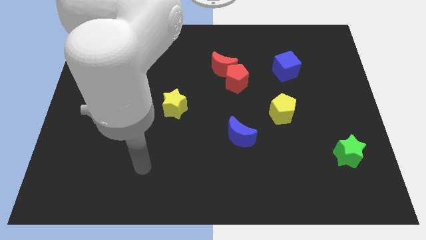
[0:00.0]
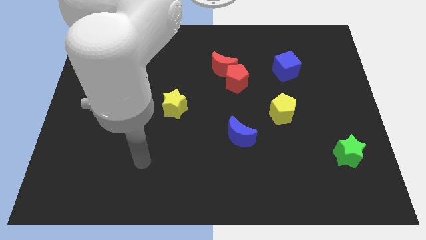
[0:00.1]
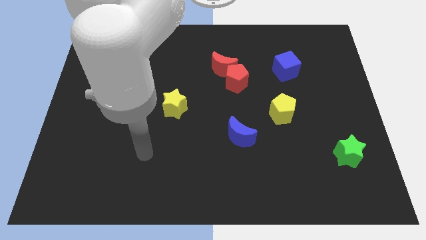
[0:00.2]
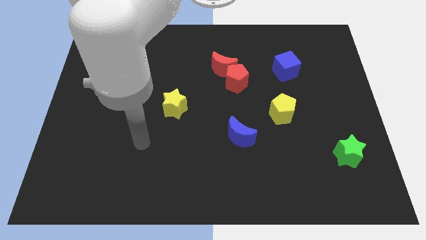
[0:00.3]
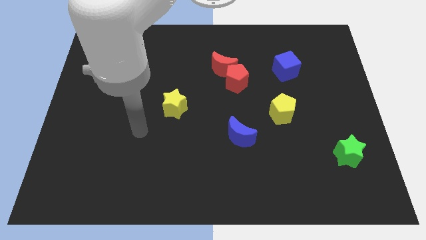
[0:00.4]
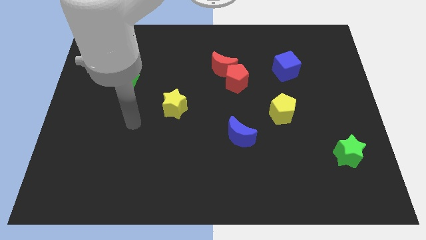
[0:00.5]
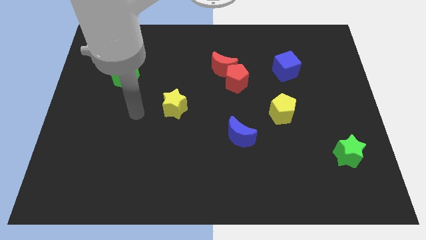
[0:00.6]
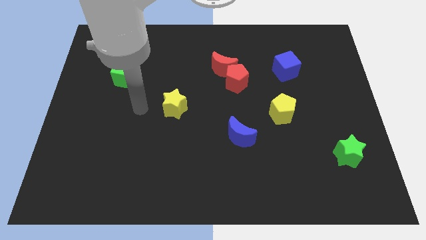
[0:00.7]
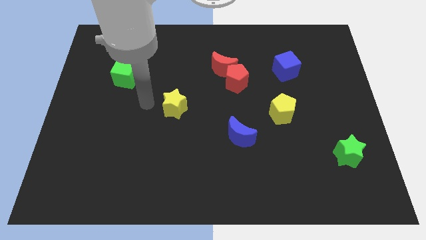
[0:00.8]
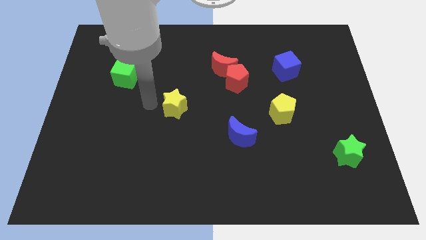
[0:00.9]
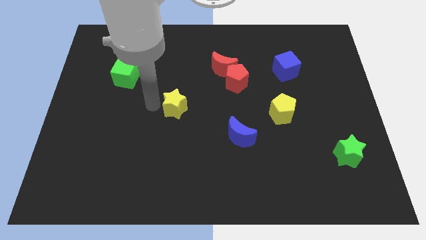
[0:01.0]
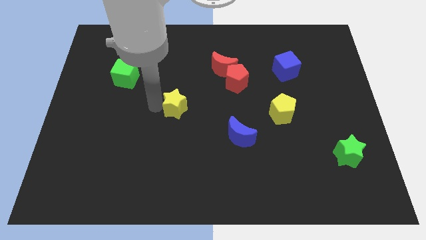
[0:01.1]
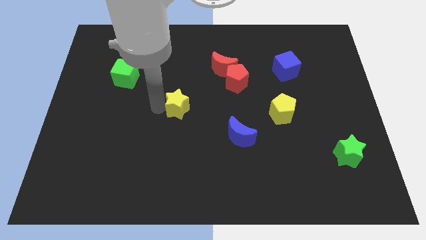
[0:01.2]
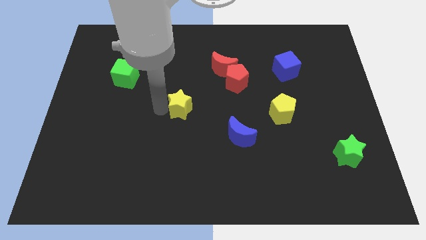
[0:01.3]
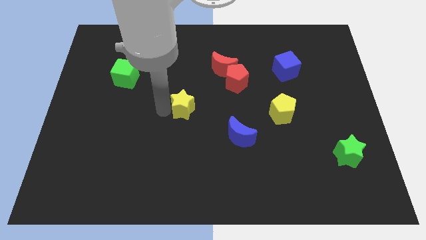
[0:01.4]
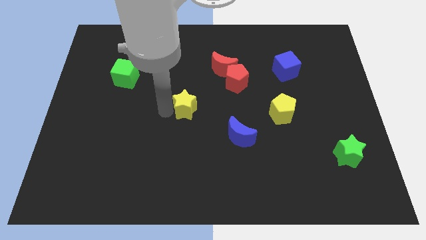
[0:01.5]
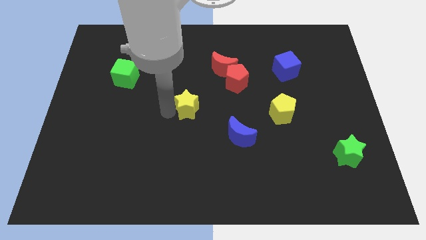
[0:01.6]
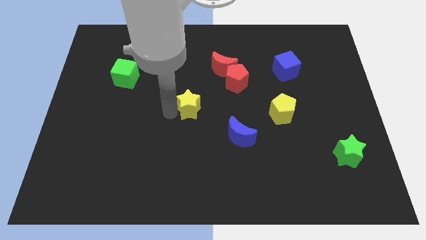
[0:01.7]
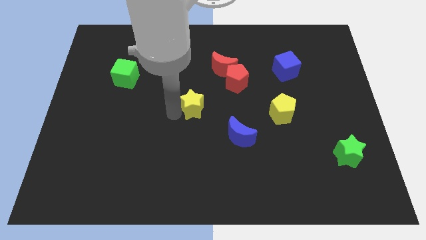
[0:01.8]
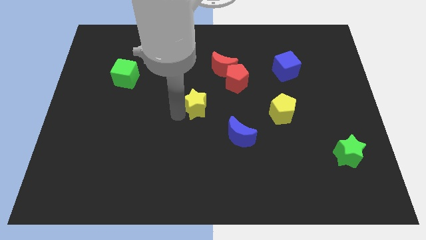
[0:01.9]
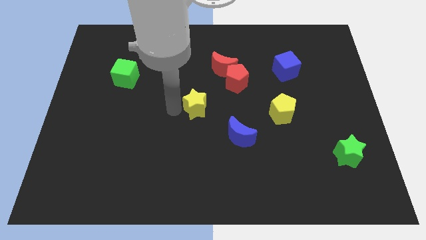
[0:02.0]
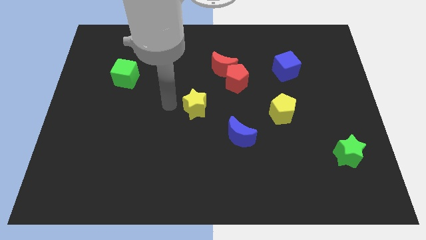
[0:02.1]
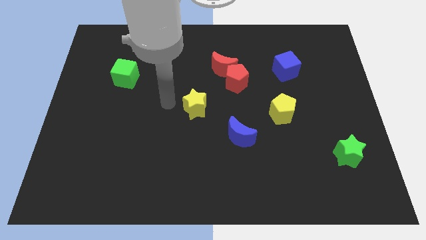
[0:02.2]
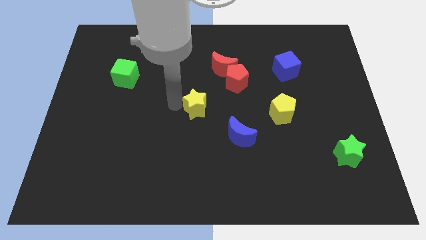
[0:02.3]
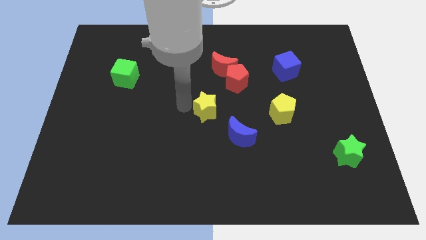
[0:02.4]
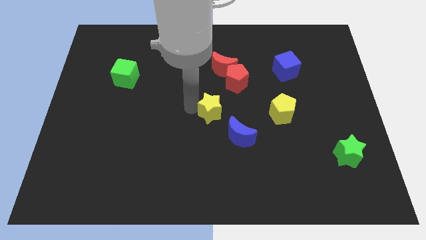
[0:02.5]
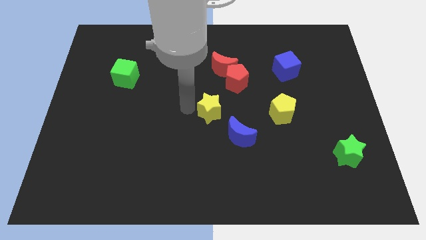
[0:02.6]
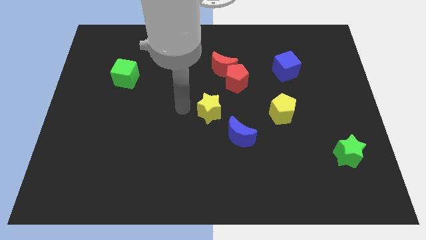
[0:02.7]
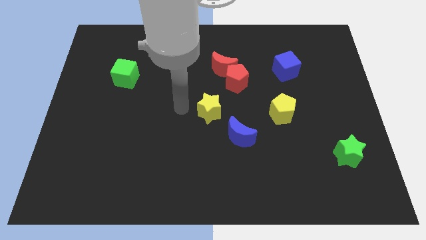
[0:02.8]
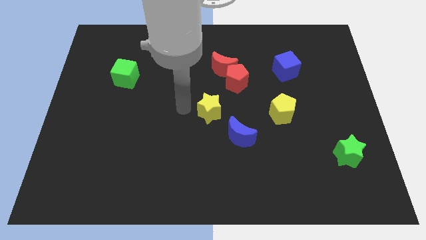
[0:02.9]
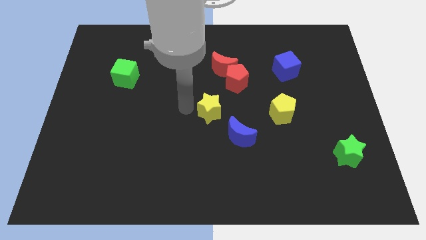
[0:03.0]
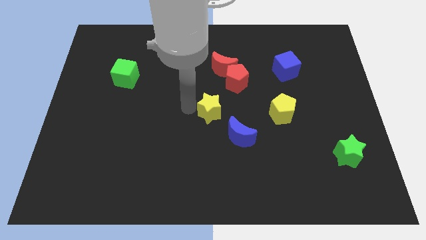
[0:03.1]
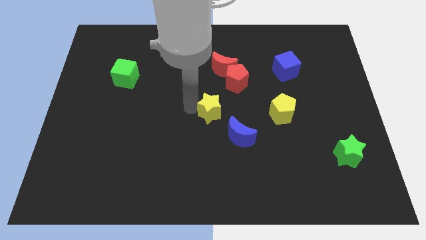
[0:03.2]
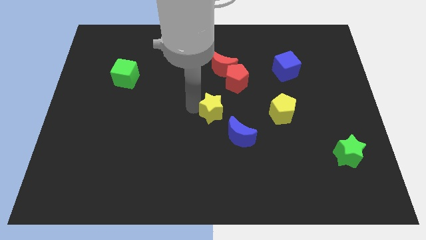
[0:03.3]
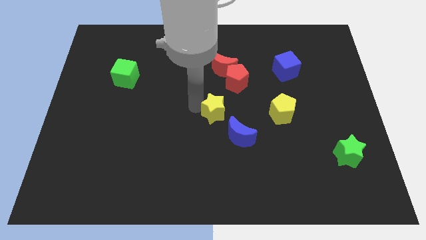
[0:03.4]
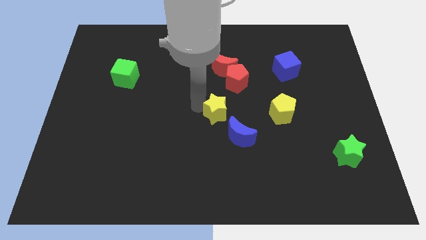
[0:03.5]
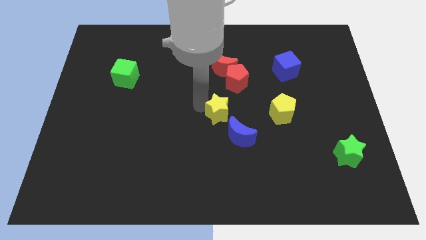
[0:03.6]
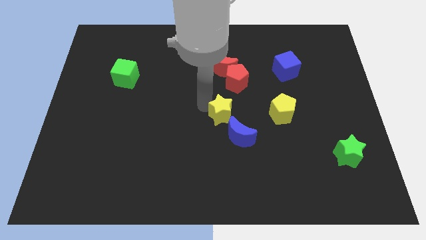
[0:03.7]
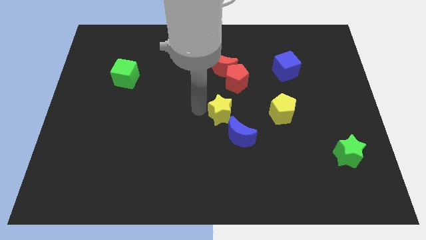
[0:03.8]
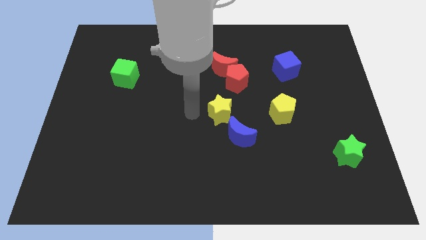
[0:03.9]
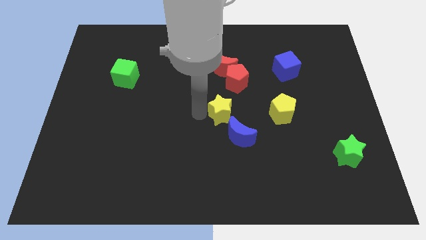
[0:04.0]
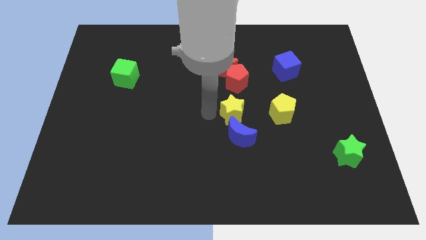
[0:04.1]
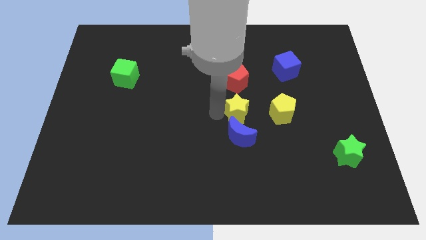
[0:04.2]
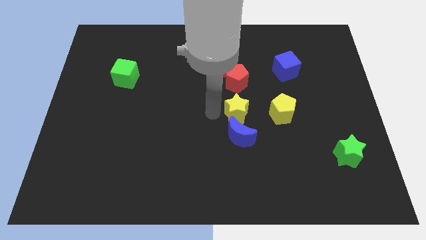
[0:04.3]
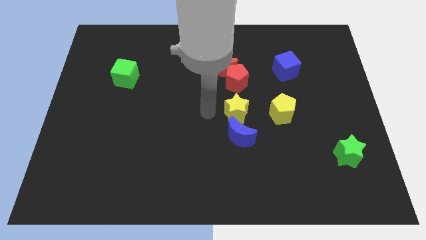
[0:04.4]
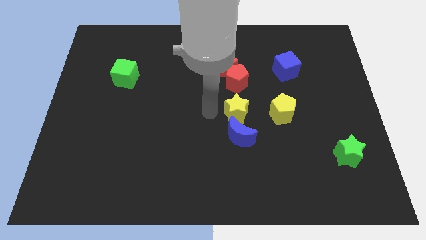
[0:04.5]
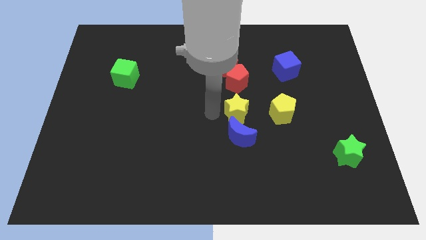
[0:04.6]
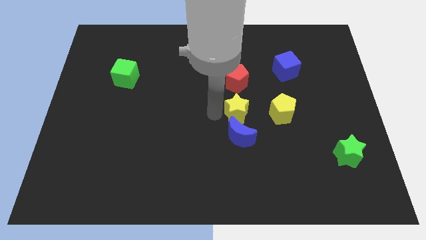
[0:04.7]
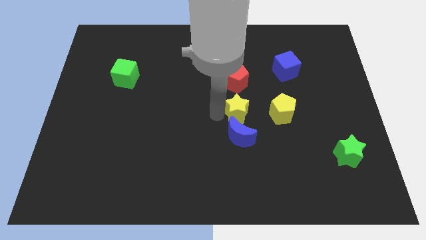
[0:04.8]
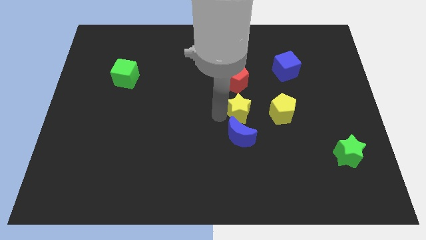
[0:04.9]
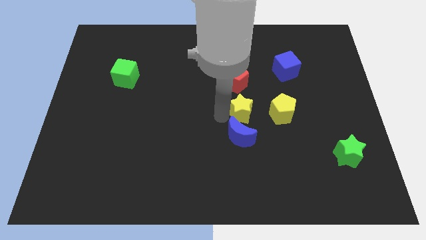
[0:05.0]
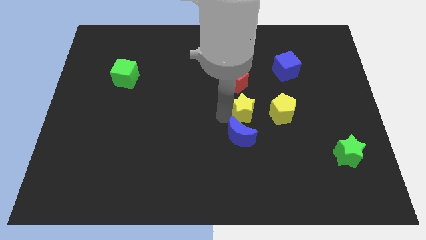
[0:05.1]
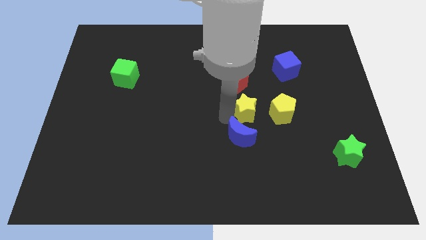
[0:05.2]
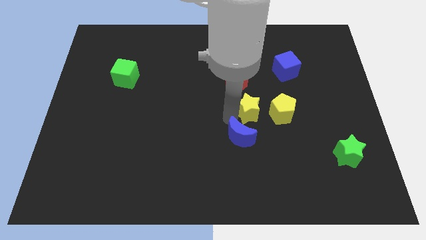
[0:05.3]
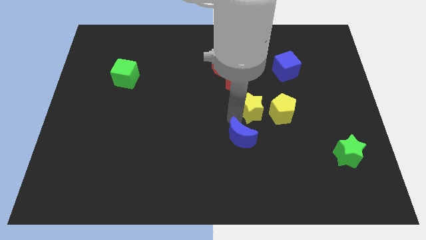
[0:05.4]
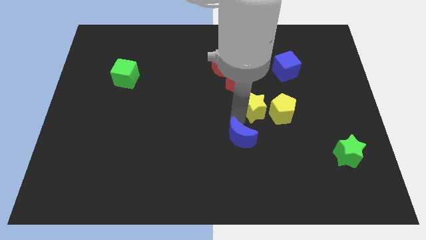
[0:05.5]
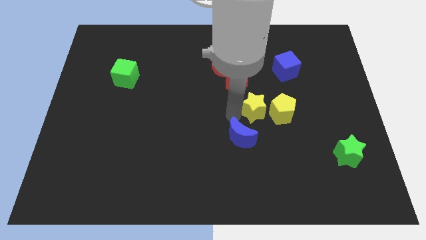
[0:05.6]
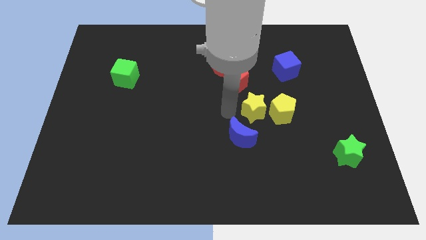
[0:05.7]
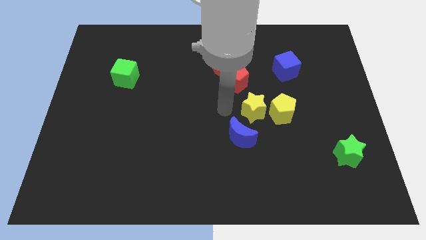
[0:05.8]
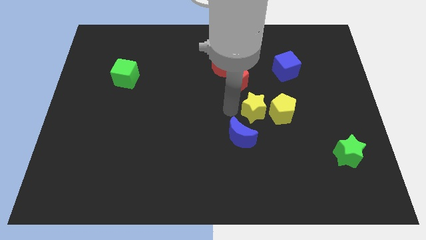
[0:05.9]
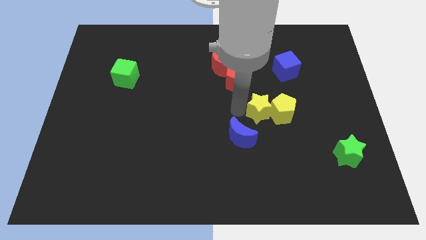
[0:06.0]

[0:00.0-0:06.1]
put the yellow star to the yellow pentagon

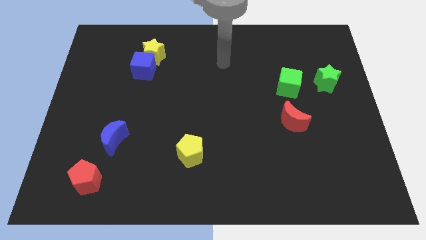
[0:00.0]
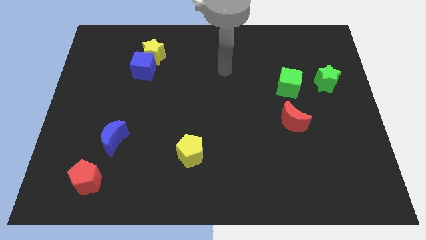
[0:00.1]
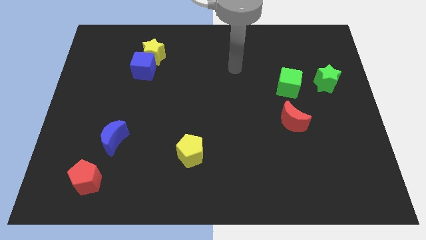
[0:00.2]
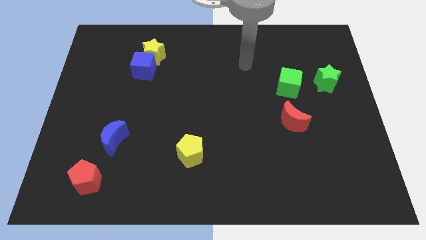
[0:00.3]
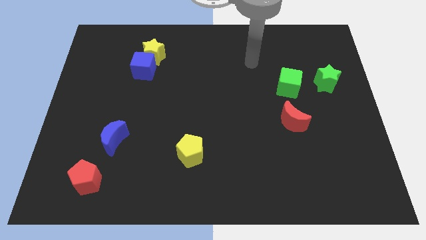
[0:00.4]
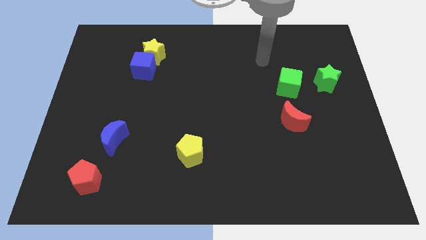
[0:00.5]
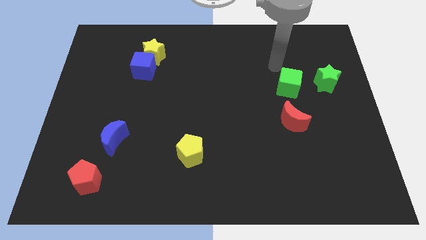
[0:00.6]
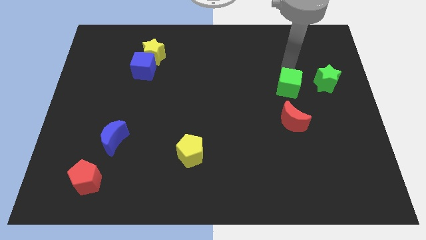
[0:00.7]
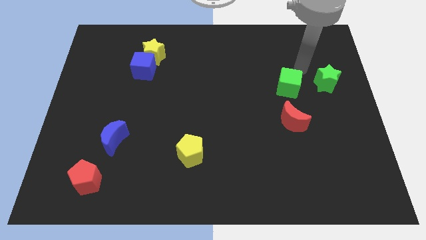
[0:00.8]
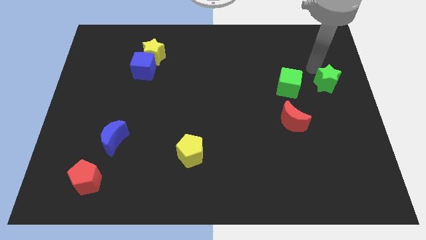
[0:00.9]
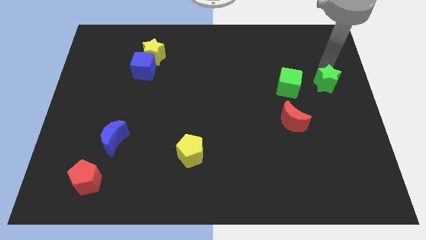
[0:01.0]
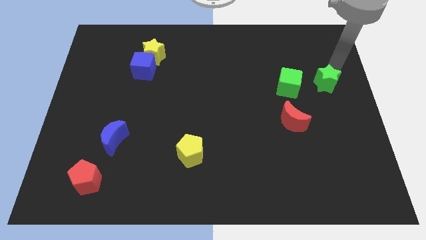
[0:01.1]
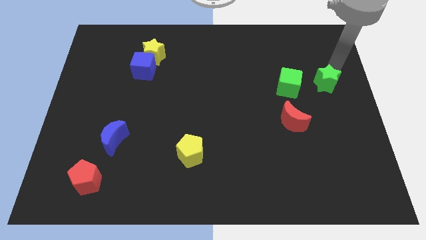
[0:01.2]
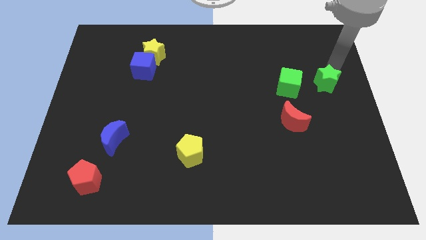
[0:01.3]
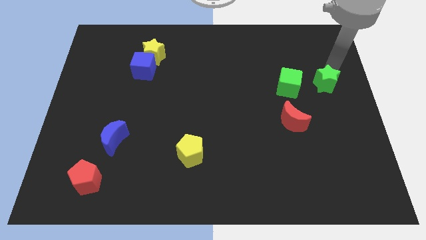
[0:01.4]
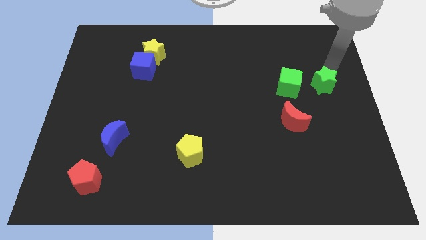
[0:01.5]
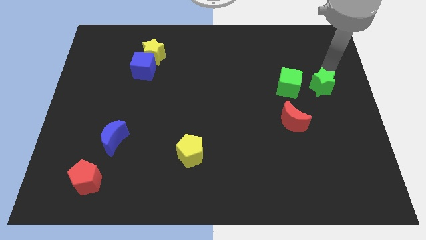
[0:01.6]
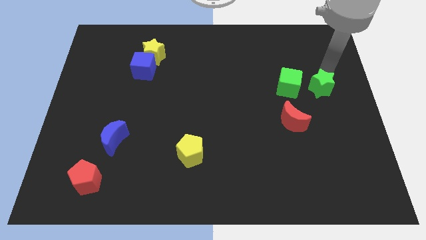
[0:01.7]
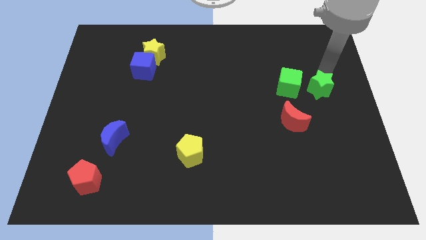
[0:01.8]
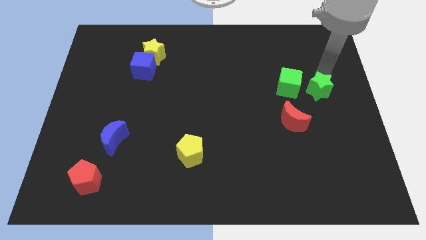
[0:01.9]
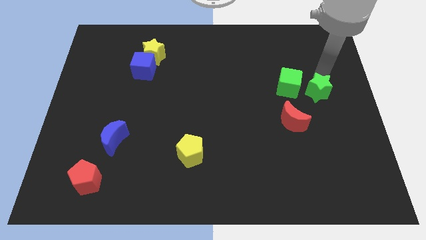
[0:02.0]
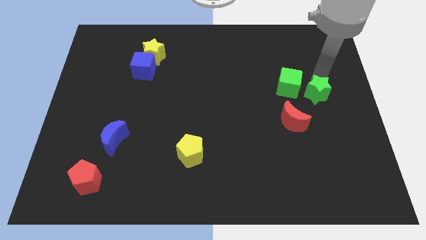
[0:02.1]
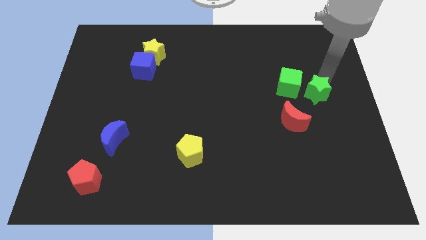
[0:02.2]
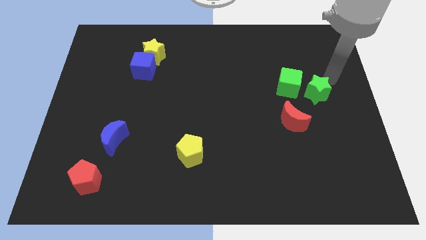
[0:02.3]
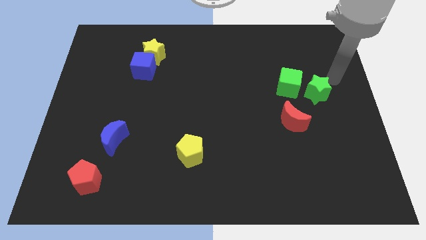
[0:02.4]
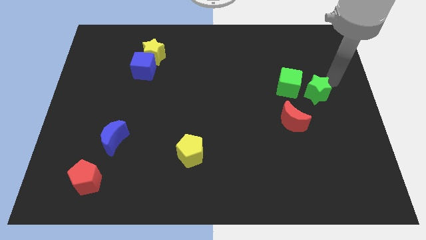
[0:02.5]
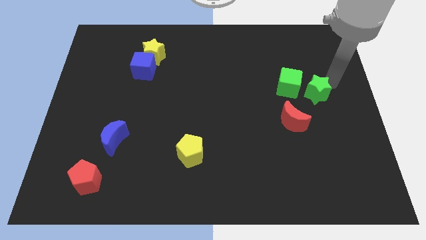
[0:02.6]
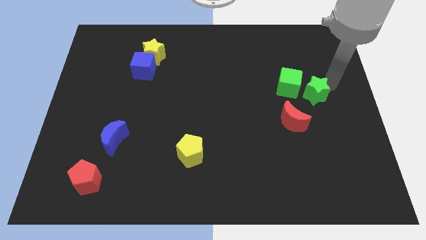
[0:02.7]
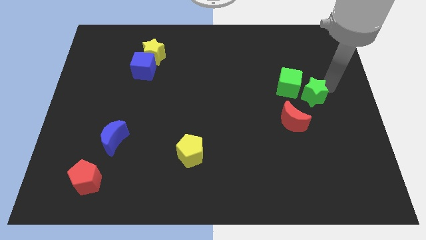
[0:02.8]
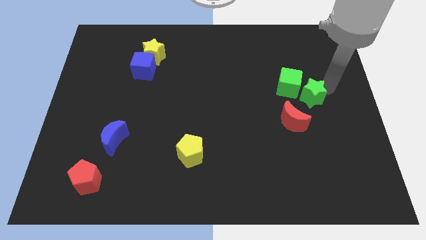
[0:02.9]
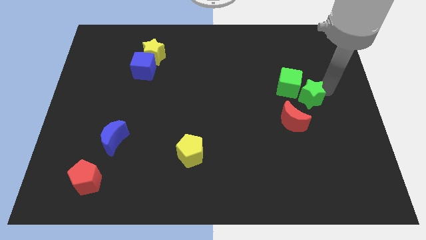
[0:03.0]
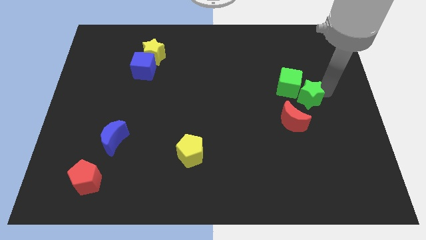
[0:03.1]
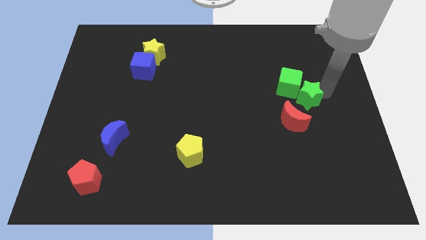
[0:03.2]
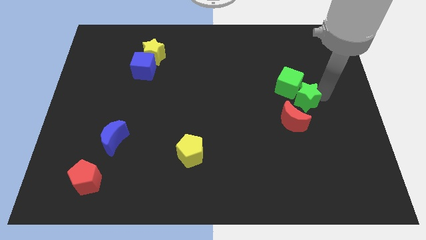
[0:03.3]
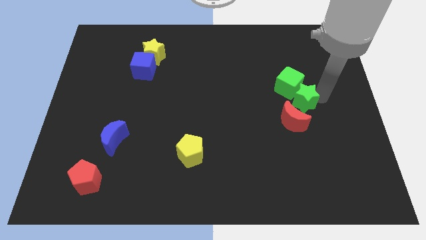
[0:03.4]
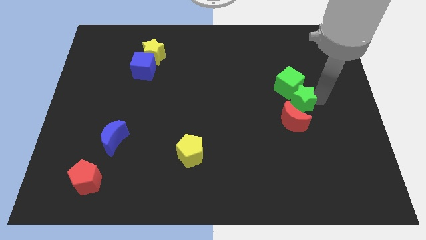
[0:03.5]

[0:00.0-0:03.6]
put the green star next to the red moon
